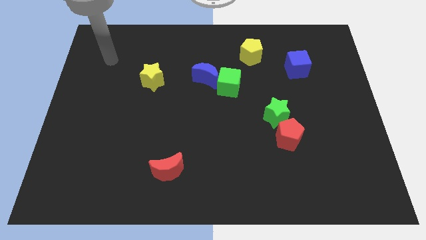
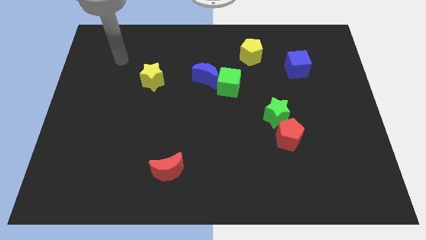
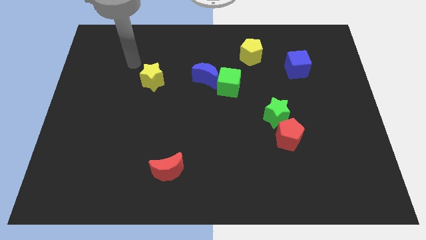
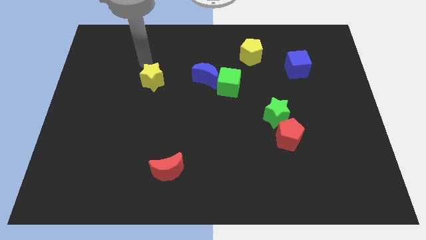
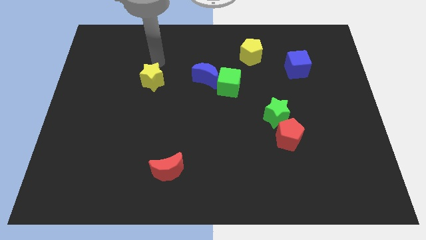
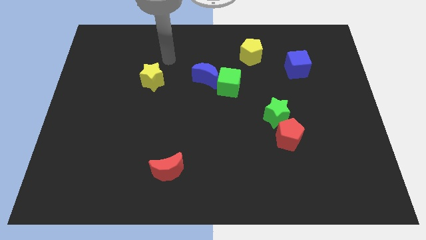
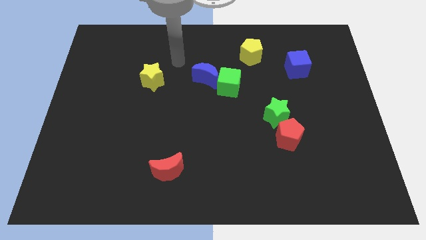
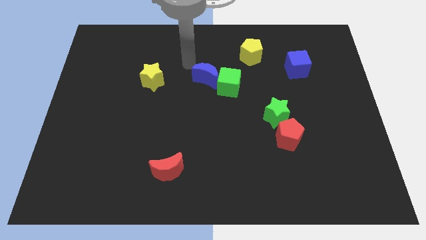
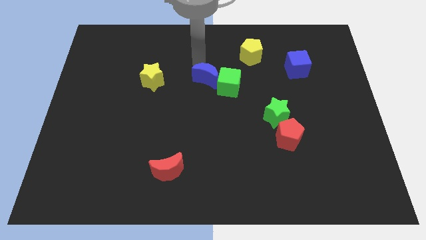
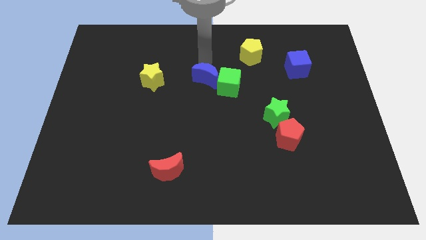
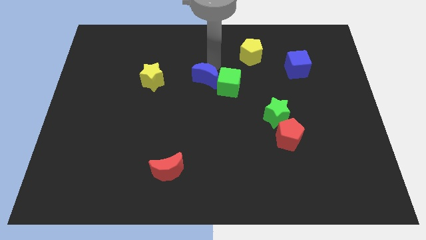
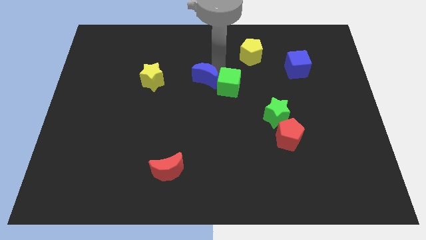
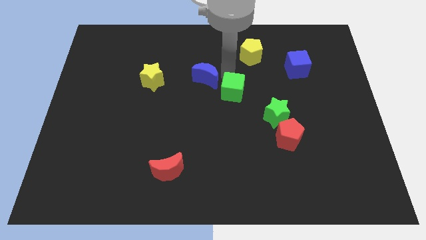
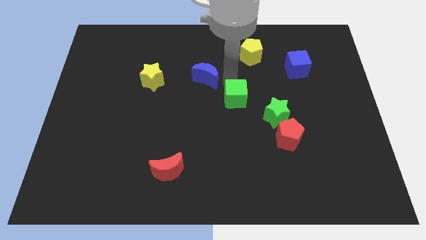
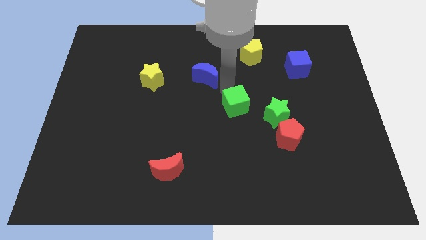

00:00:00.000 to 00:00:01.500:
move the blue moon away from the green cube

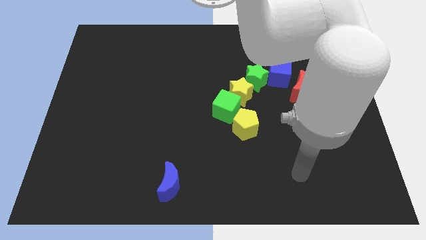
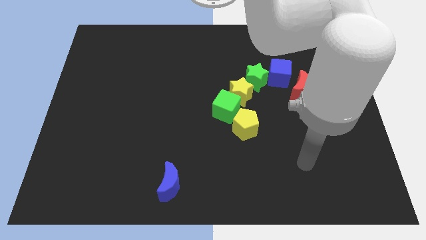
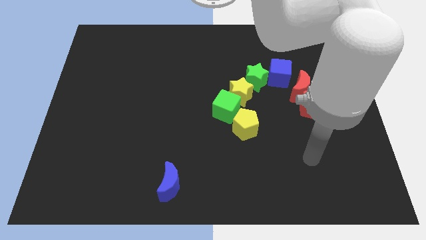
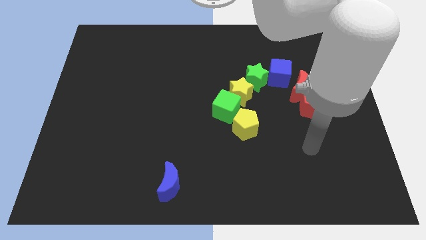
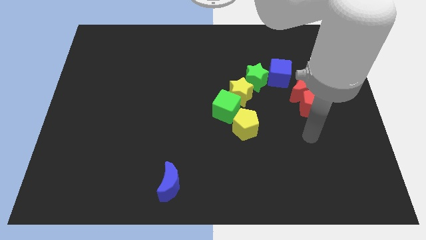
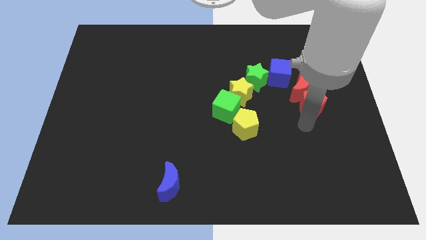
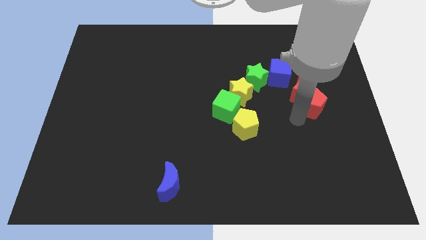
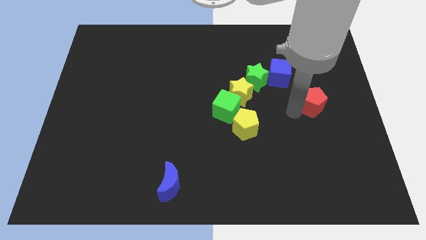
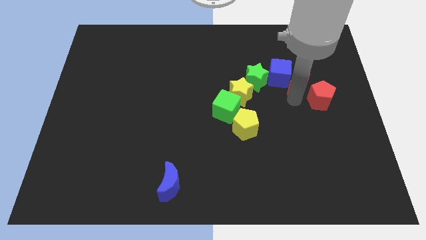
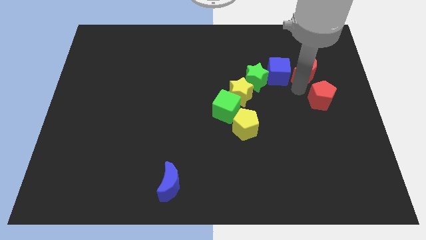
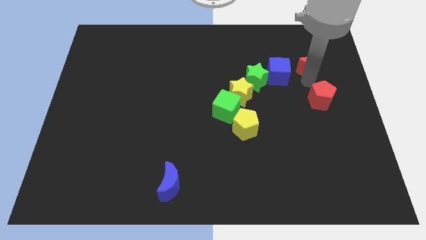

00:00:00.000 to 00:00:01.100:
pull the red pentagon apart from the red moon

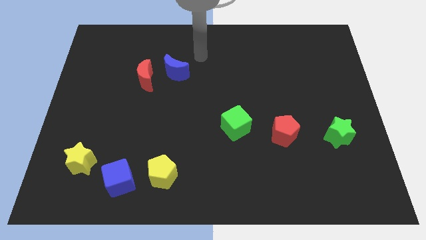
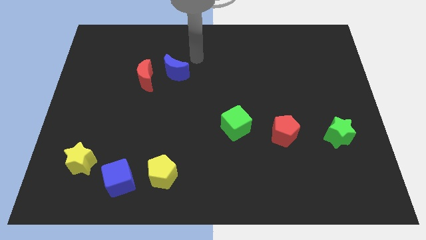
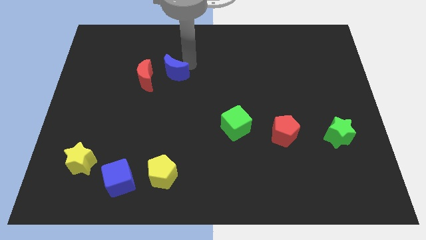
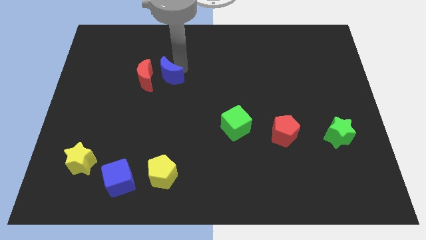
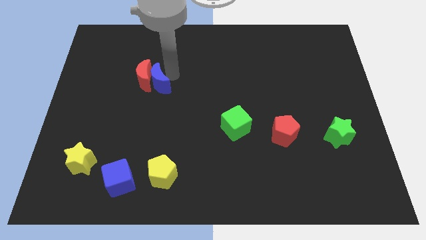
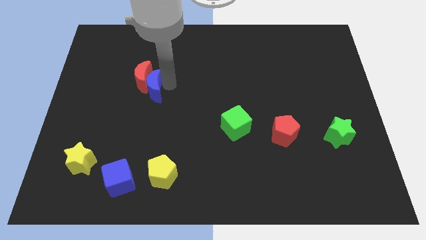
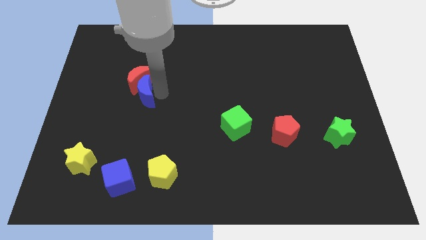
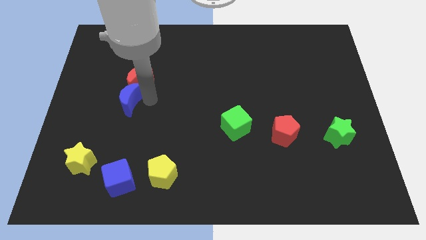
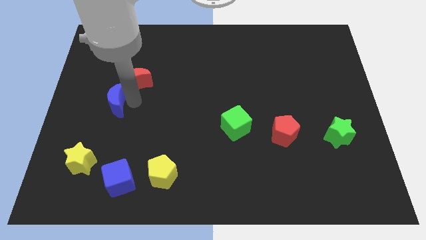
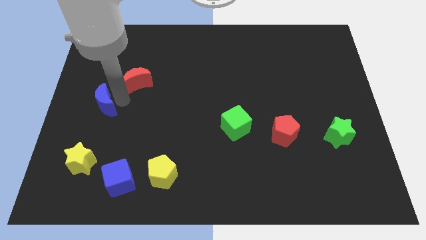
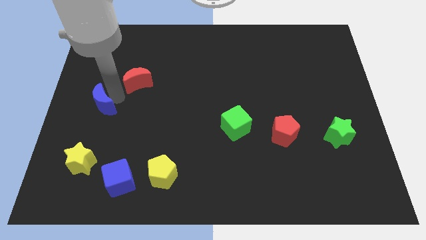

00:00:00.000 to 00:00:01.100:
move the red moon away from the blue moon

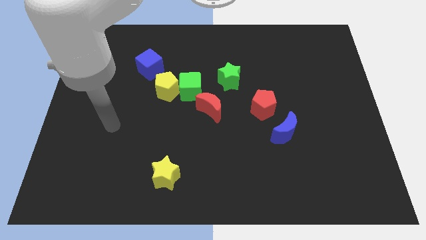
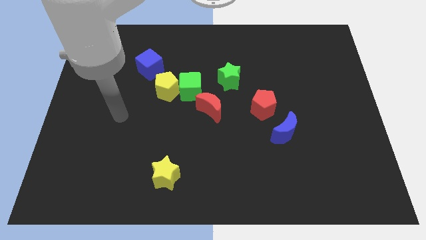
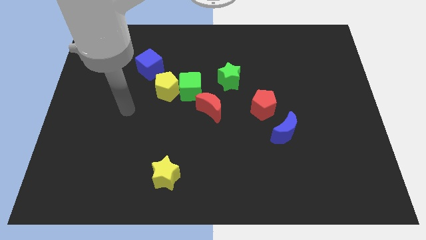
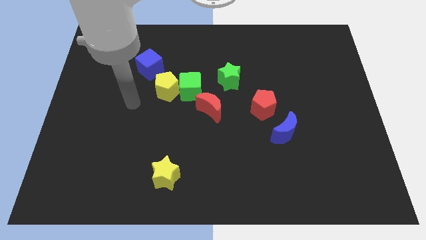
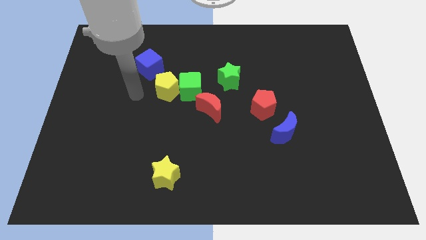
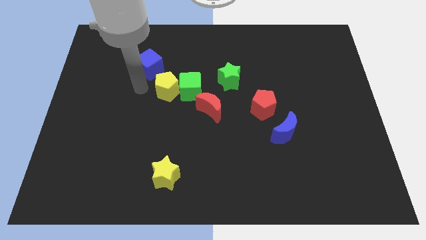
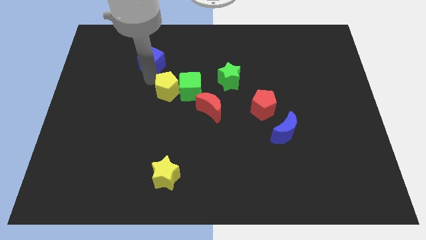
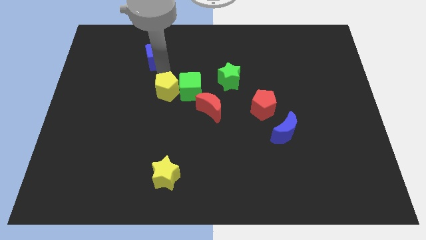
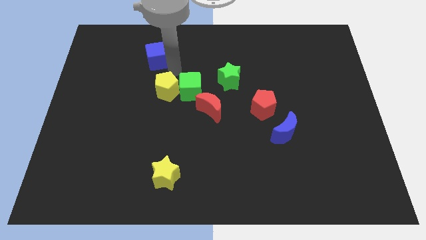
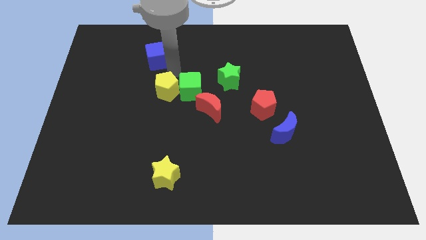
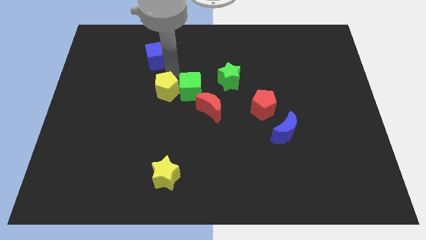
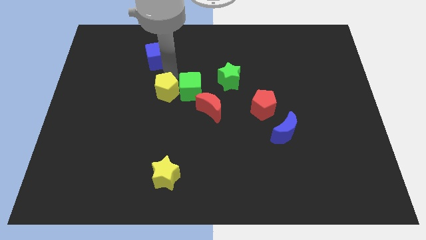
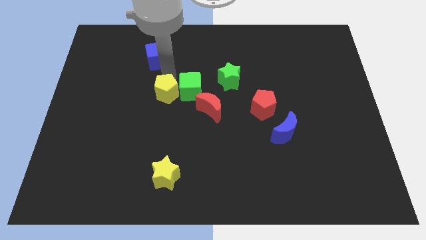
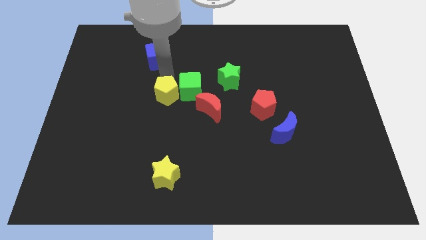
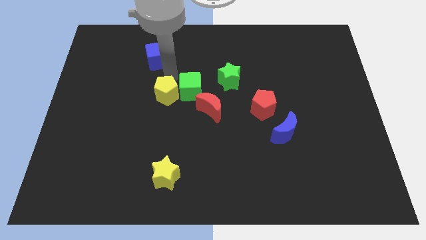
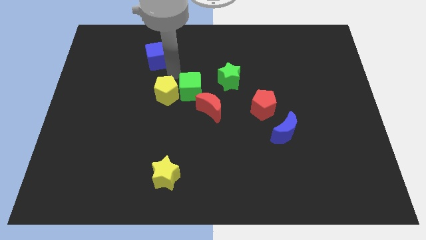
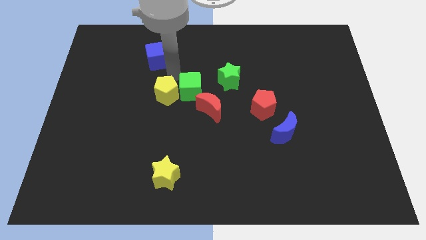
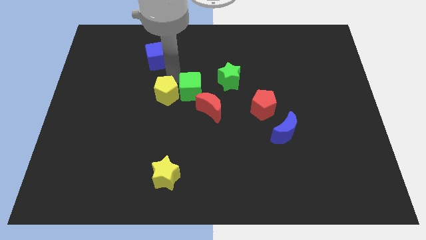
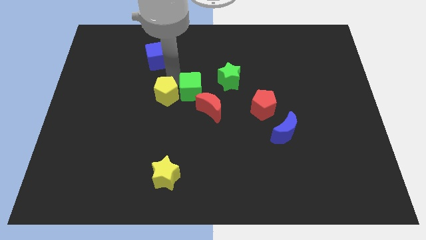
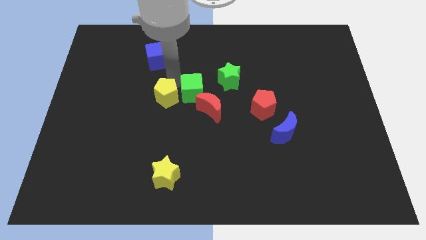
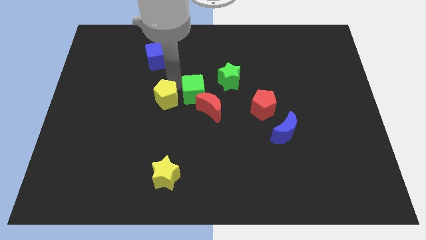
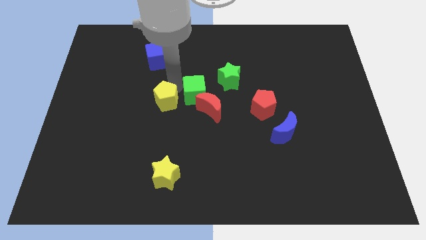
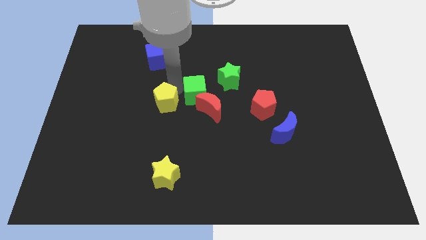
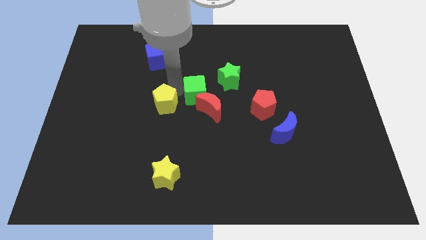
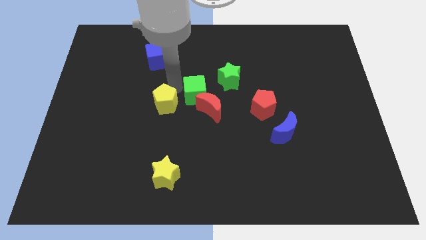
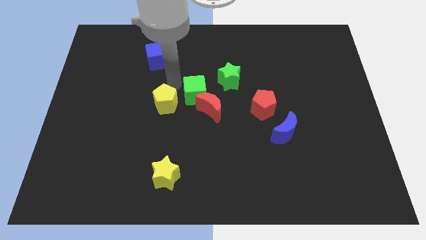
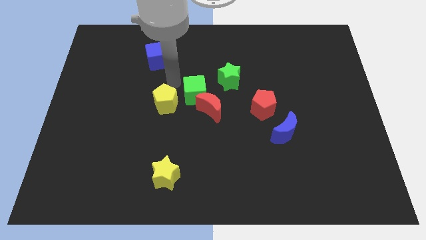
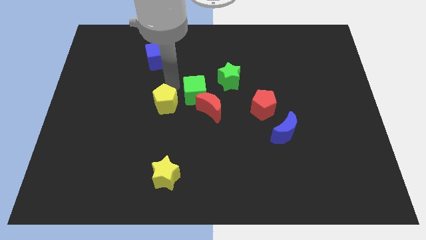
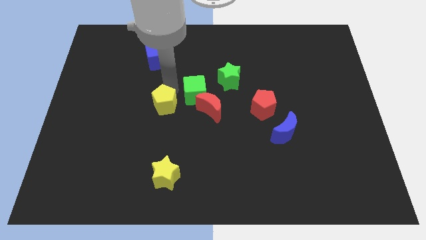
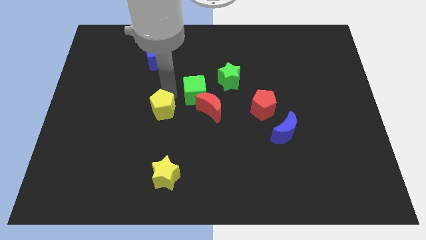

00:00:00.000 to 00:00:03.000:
pull the yellow pentagon apart from the green cube and blue cube

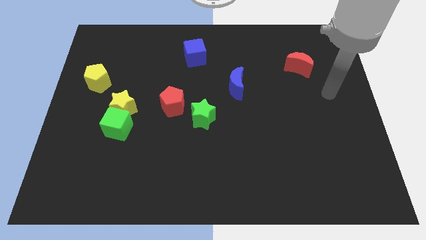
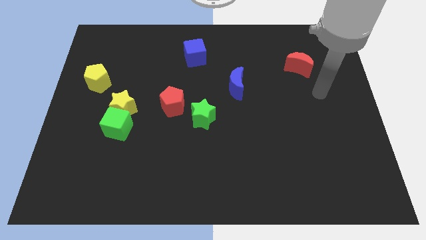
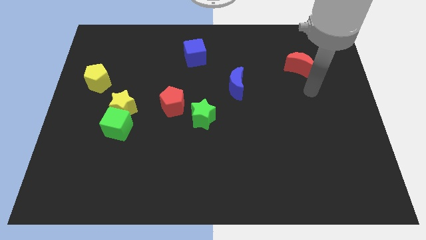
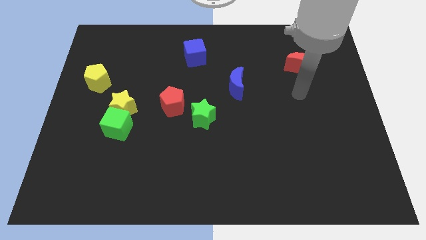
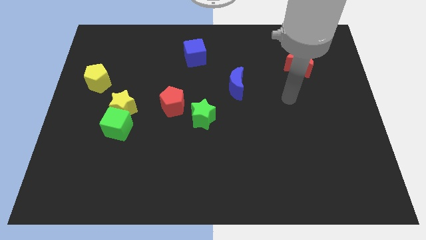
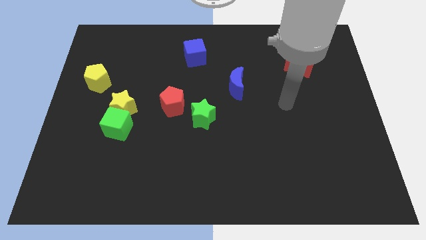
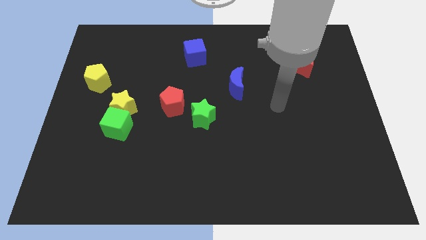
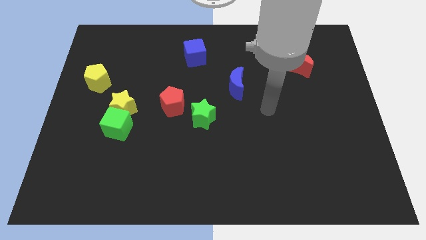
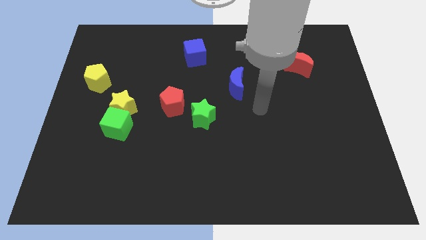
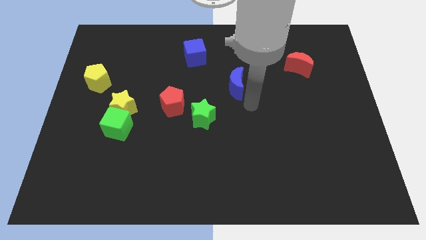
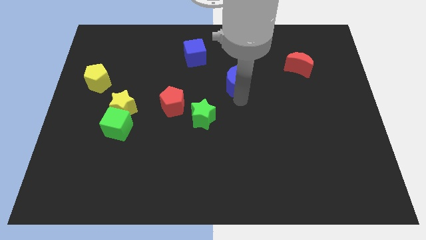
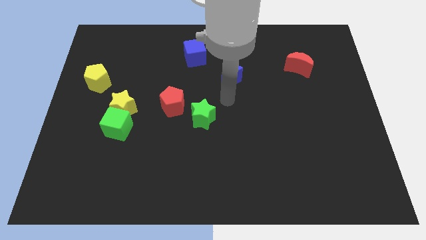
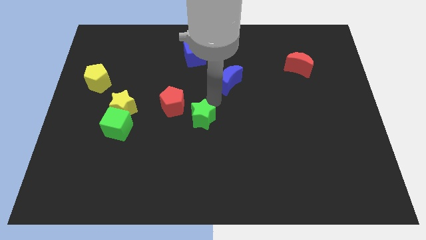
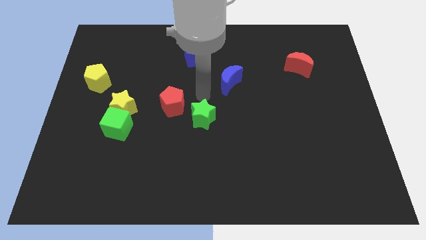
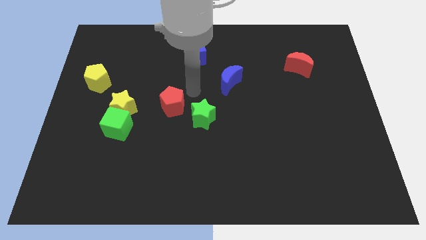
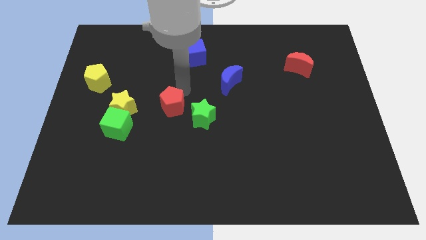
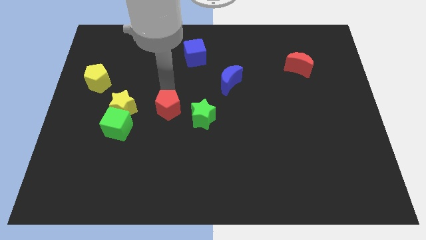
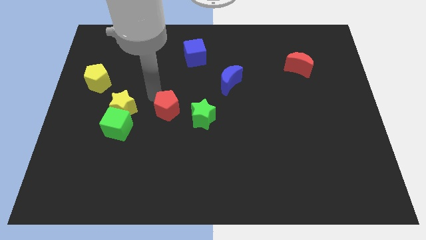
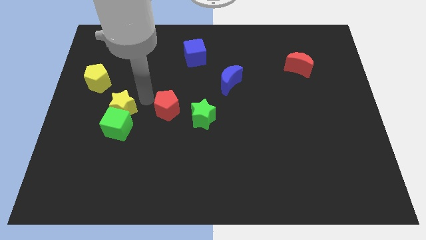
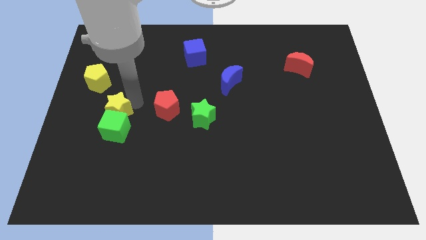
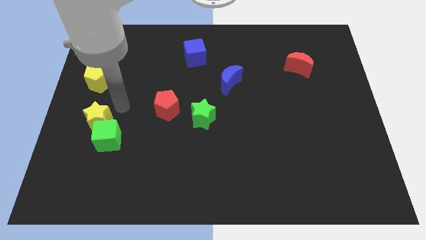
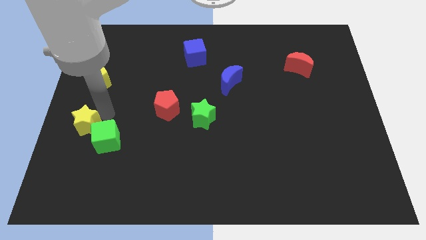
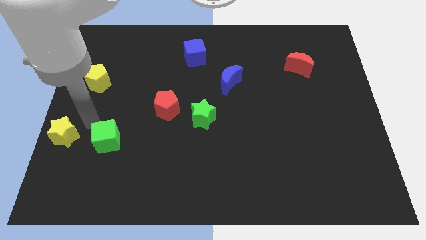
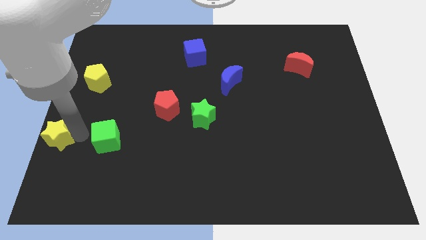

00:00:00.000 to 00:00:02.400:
move the green cube away from the yellow star

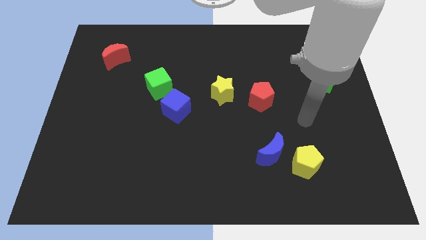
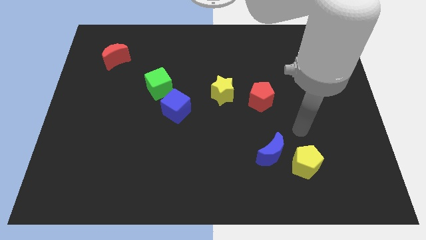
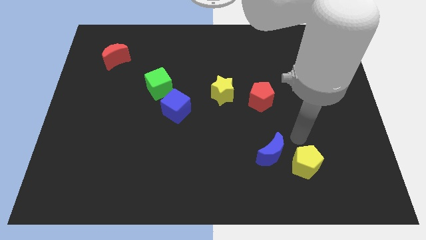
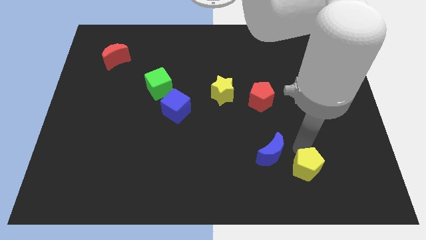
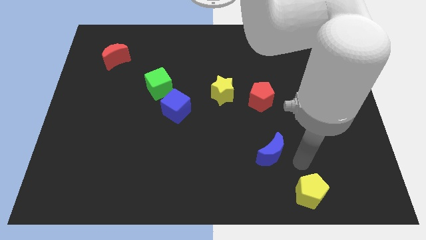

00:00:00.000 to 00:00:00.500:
pull the blue moon apart from the yellow pentagon
